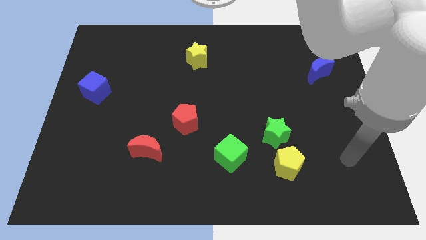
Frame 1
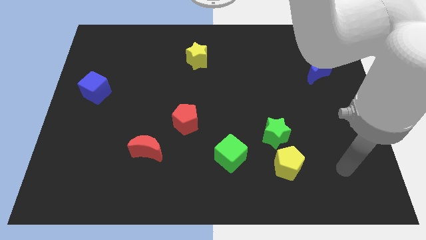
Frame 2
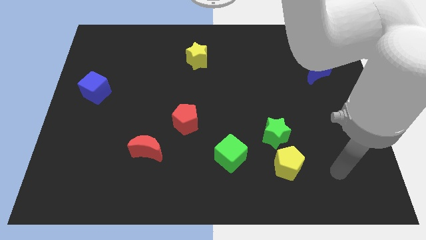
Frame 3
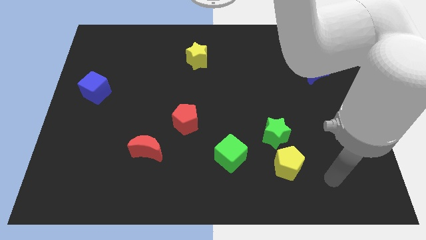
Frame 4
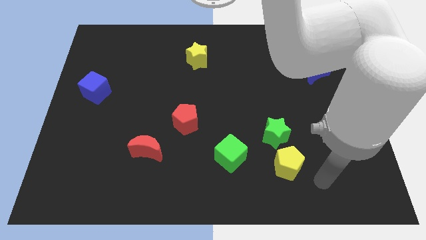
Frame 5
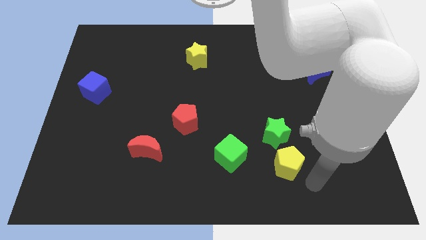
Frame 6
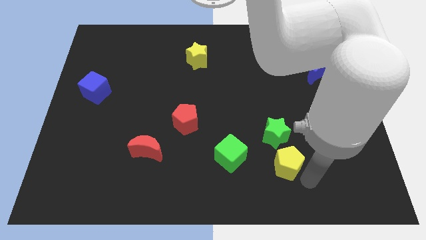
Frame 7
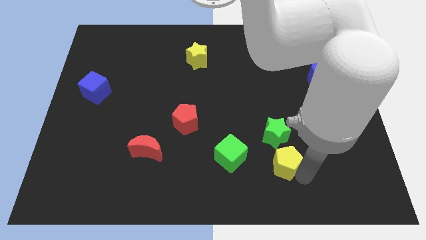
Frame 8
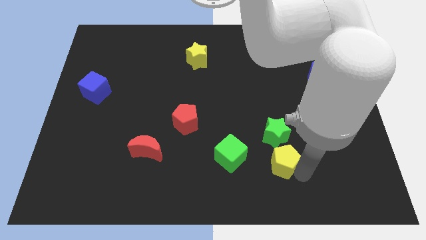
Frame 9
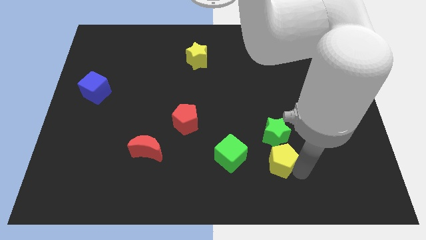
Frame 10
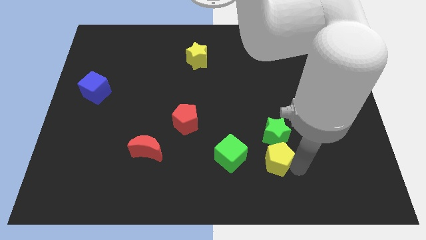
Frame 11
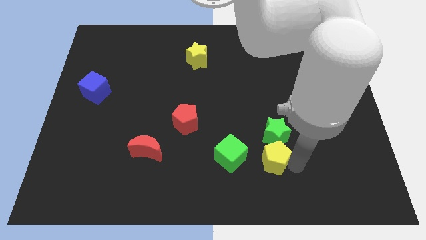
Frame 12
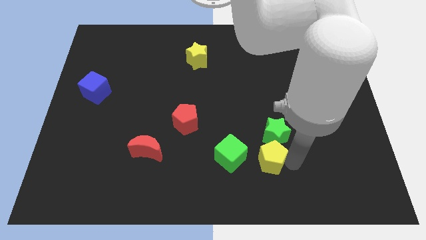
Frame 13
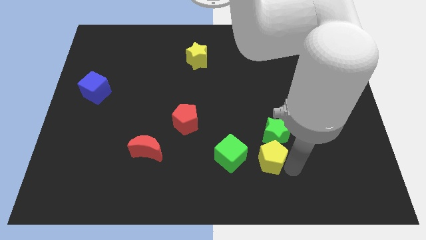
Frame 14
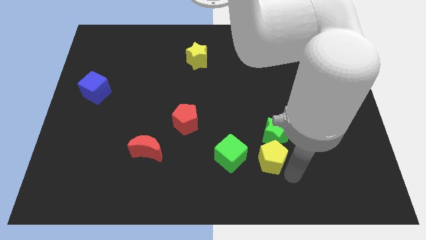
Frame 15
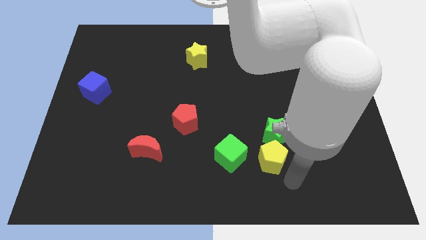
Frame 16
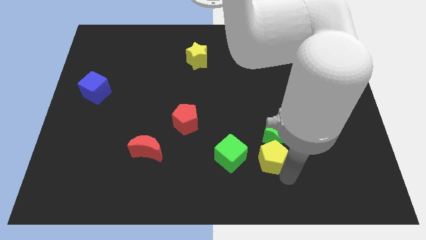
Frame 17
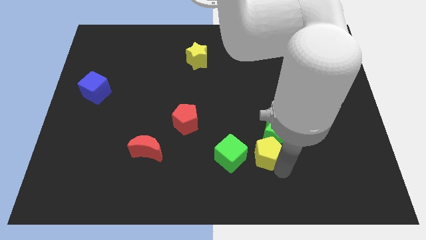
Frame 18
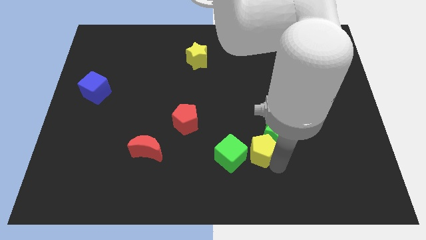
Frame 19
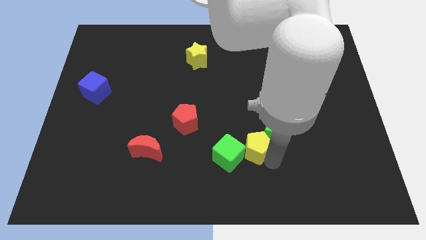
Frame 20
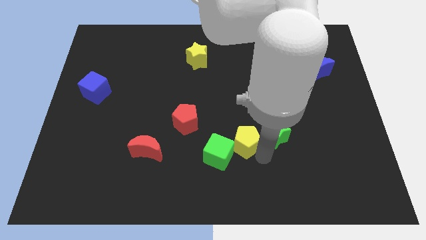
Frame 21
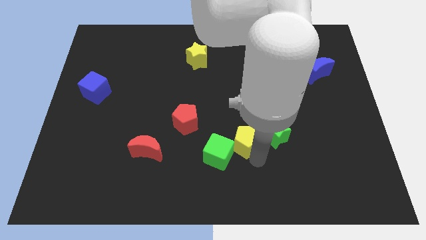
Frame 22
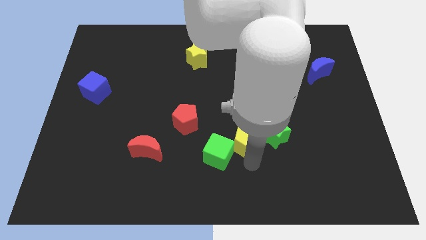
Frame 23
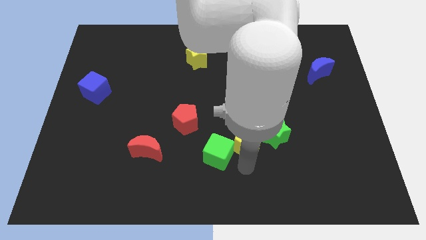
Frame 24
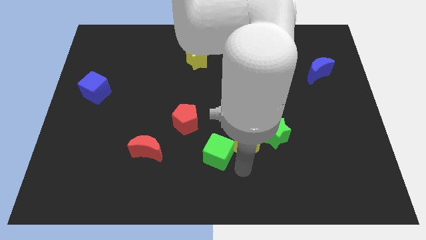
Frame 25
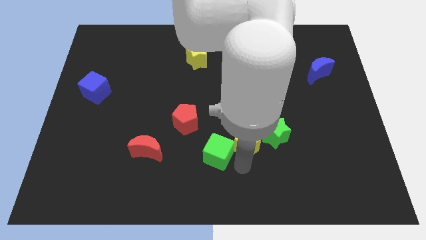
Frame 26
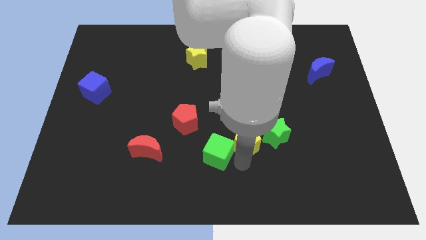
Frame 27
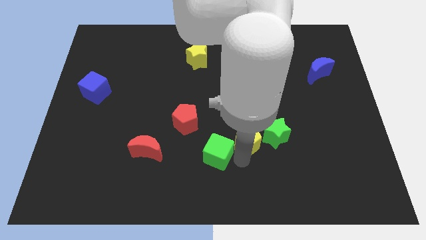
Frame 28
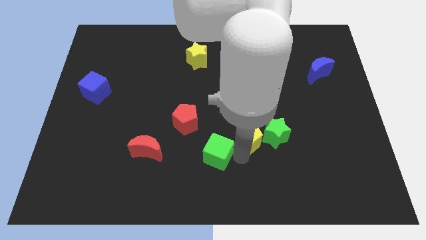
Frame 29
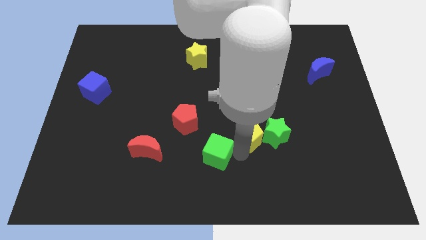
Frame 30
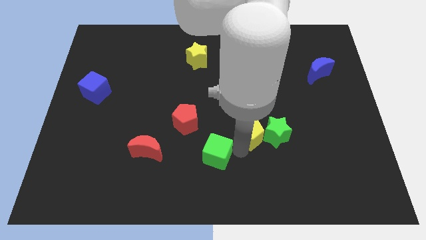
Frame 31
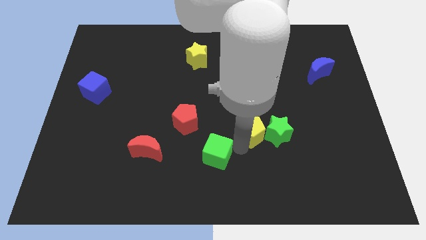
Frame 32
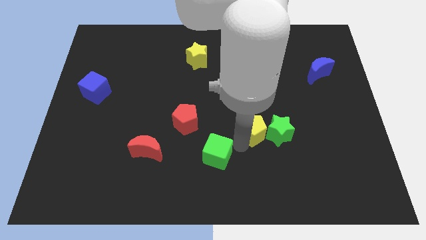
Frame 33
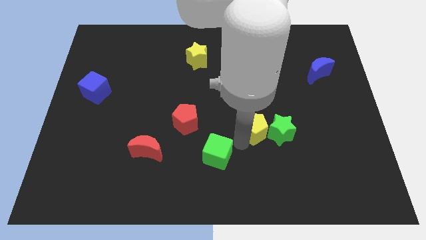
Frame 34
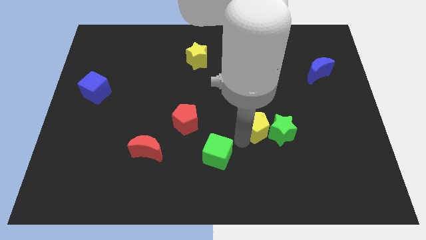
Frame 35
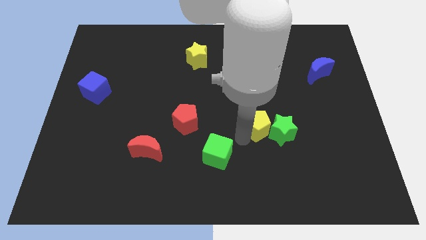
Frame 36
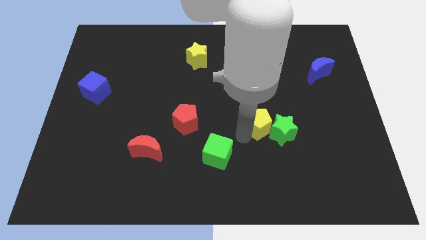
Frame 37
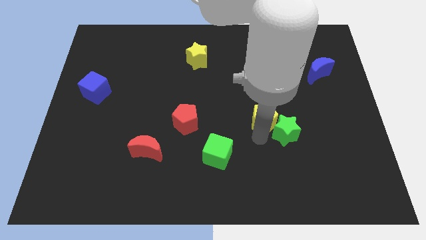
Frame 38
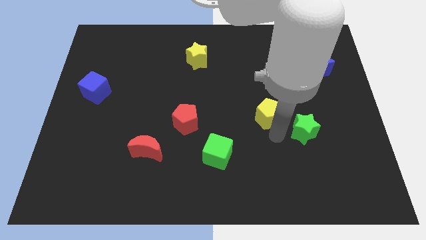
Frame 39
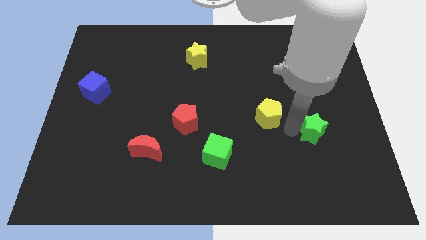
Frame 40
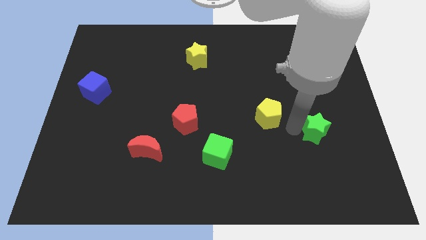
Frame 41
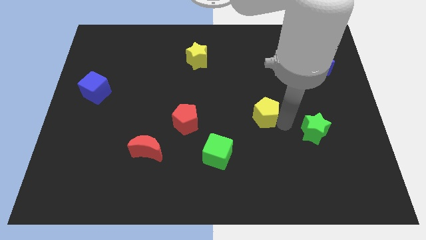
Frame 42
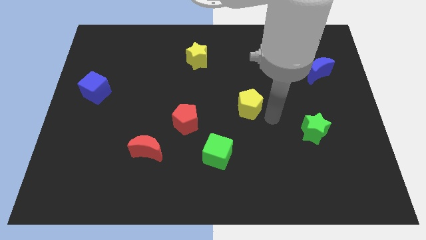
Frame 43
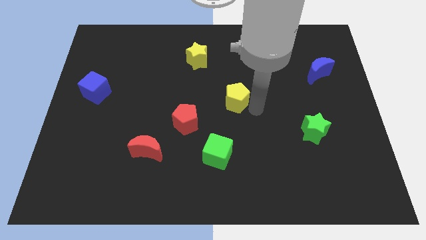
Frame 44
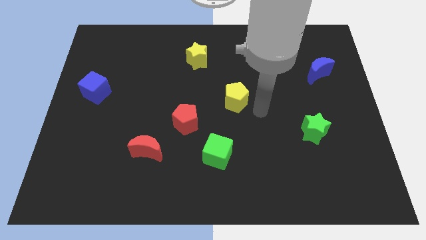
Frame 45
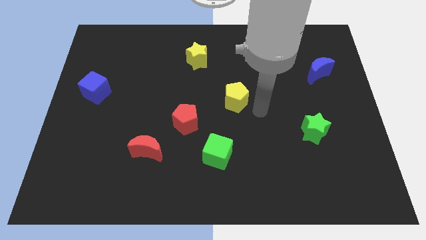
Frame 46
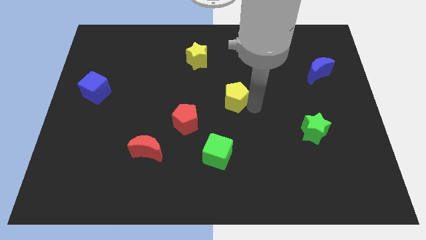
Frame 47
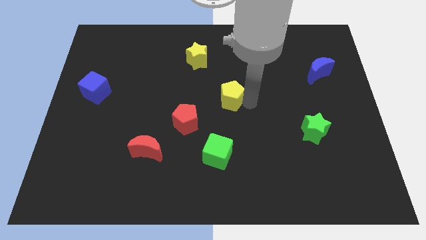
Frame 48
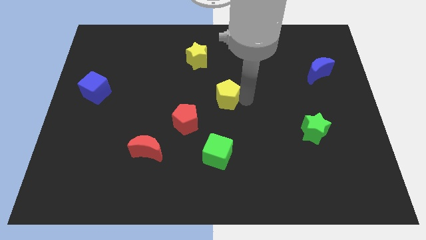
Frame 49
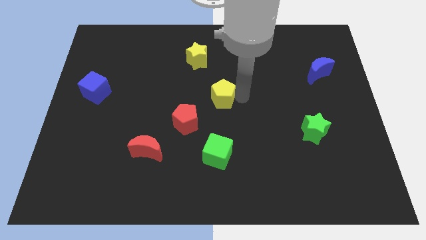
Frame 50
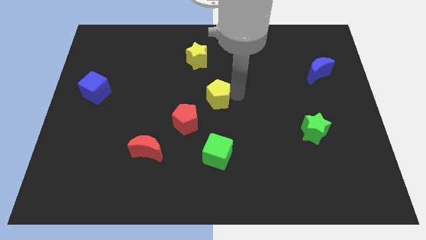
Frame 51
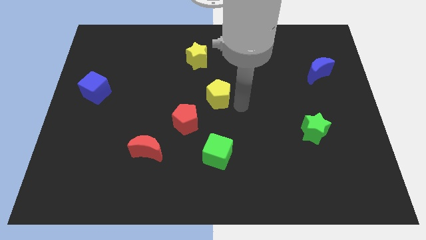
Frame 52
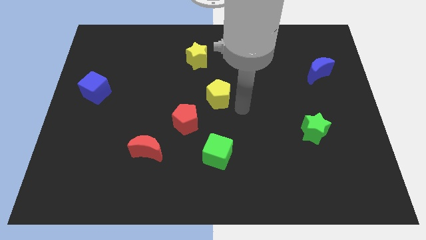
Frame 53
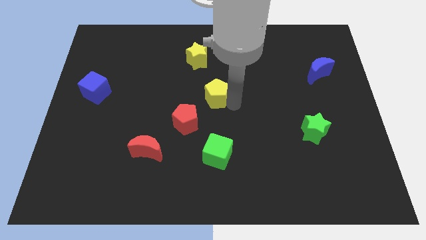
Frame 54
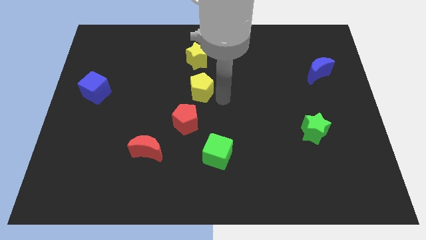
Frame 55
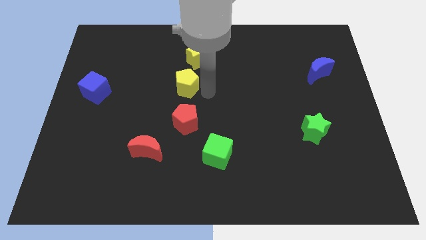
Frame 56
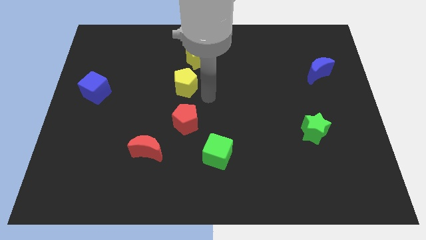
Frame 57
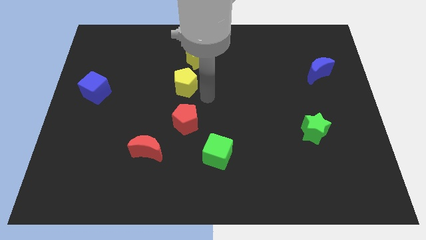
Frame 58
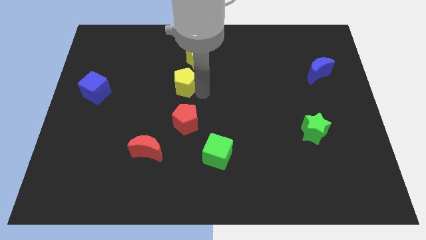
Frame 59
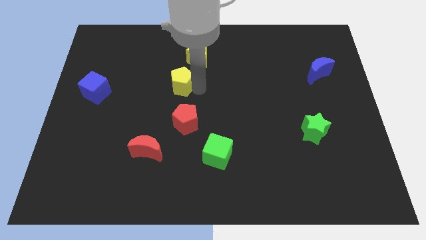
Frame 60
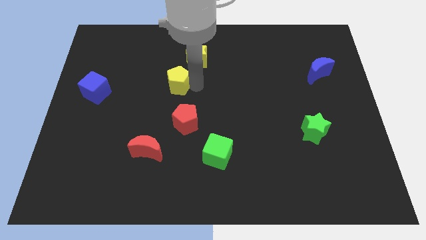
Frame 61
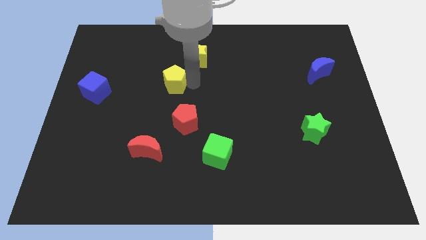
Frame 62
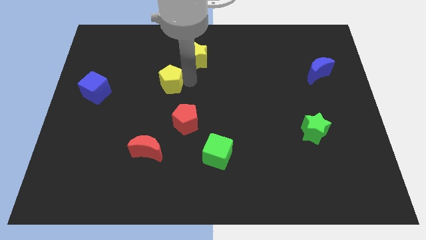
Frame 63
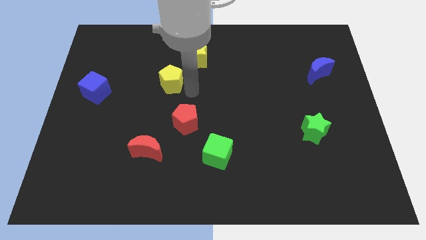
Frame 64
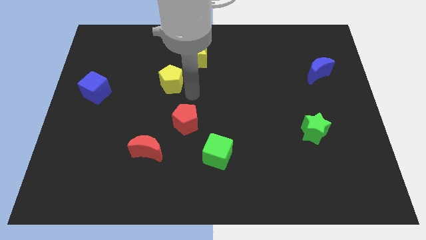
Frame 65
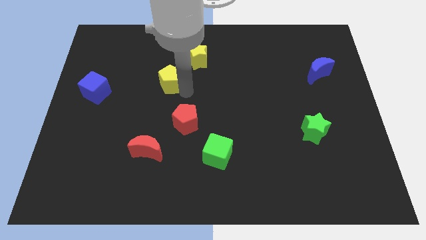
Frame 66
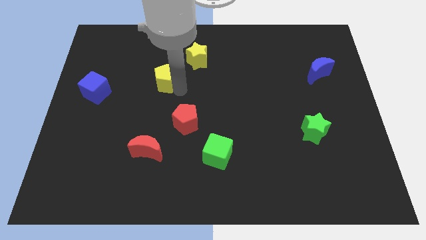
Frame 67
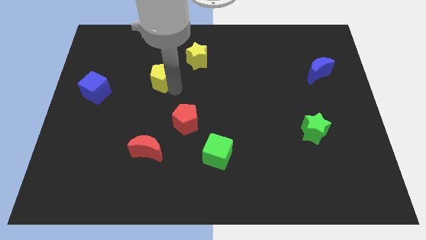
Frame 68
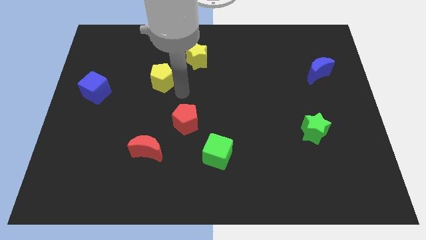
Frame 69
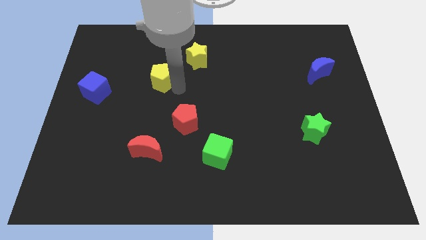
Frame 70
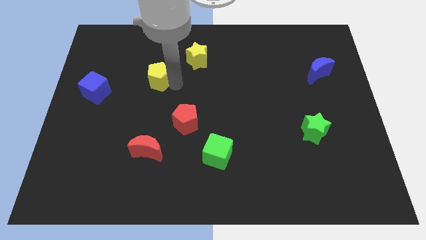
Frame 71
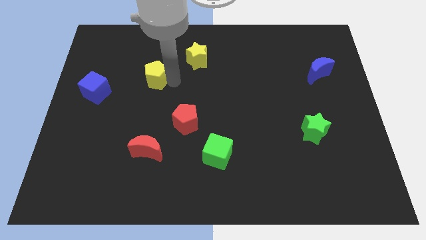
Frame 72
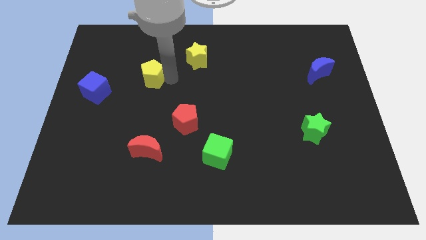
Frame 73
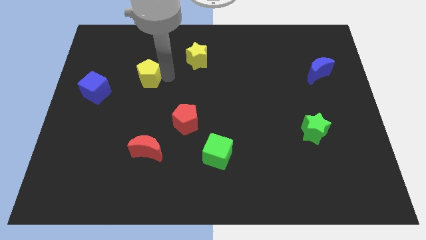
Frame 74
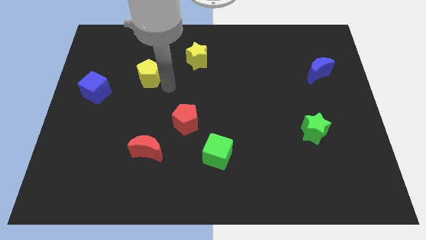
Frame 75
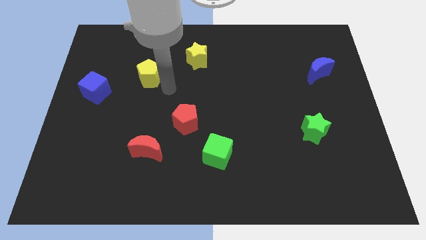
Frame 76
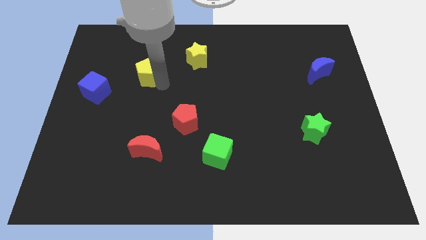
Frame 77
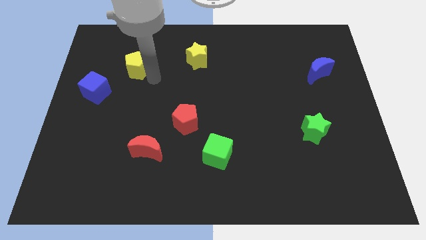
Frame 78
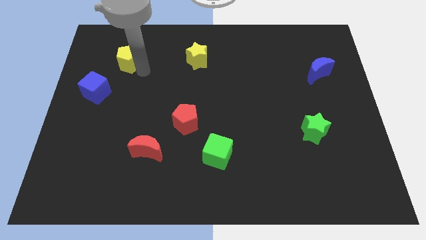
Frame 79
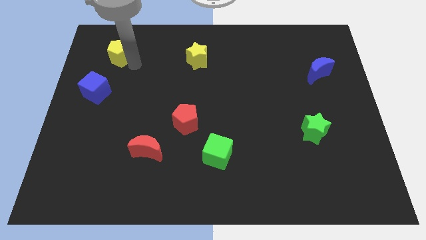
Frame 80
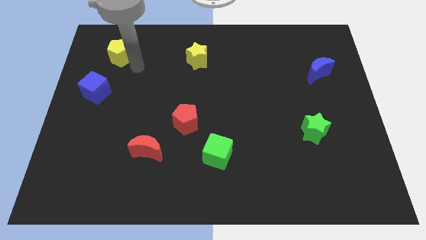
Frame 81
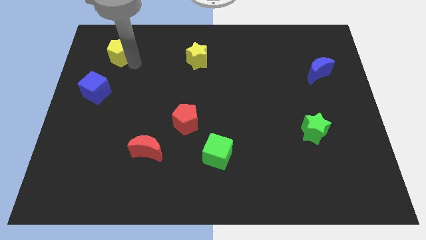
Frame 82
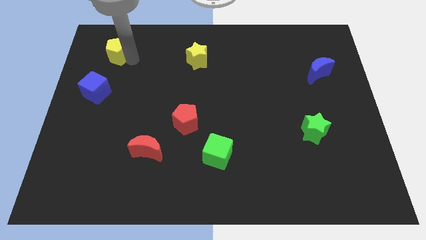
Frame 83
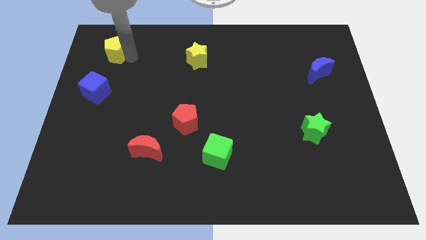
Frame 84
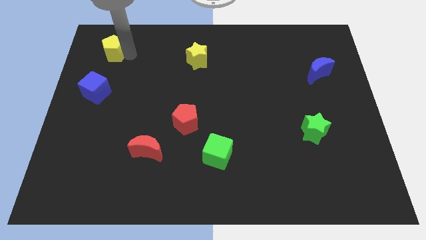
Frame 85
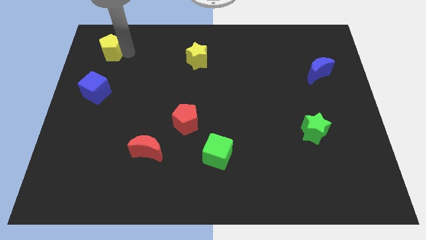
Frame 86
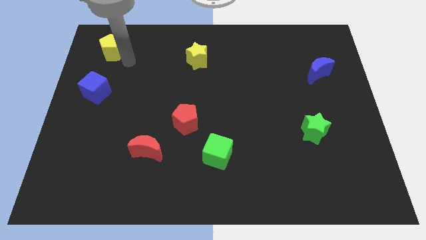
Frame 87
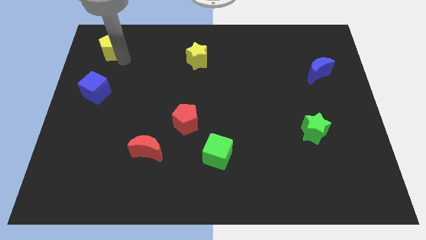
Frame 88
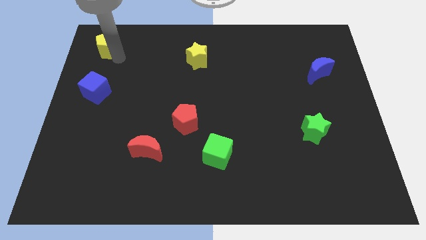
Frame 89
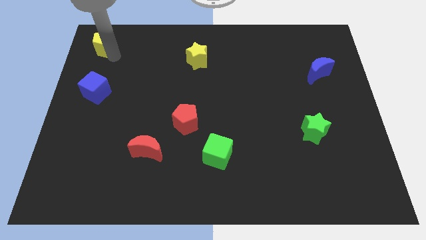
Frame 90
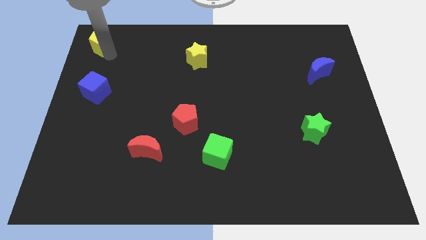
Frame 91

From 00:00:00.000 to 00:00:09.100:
push the yellow pentagon to the top left
